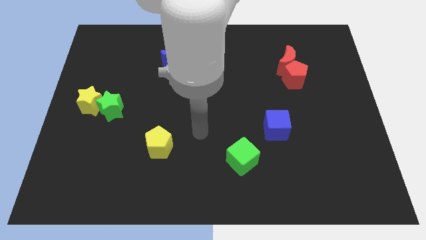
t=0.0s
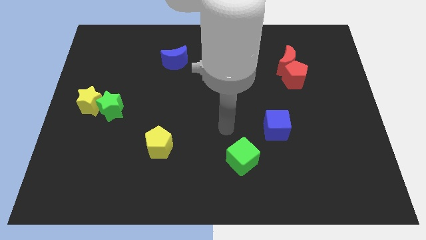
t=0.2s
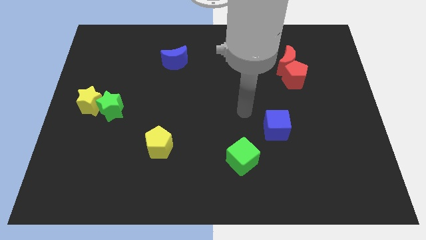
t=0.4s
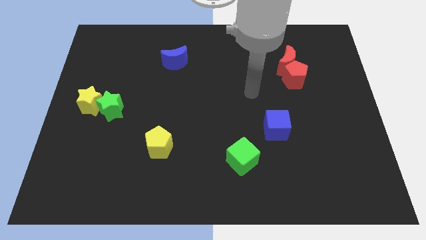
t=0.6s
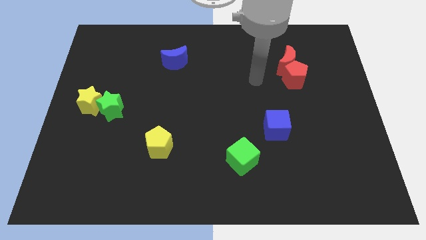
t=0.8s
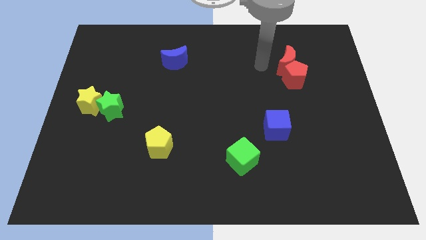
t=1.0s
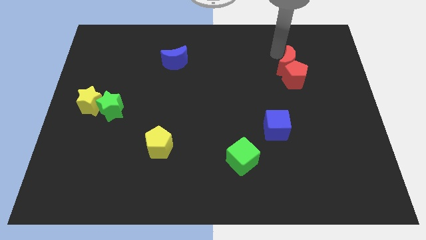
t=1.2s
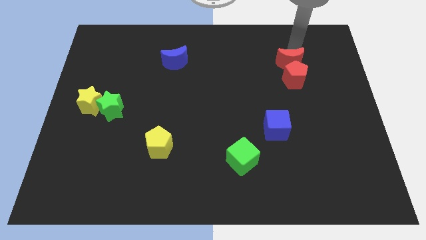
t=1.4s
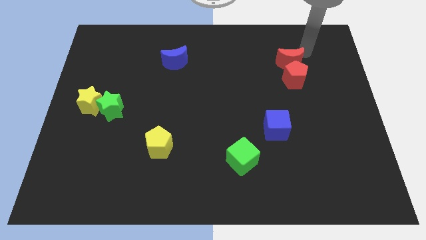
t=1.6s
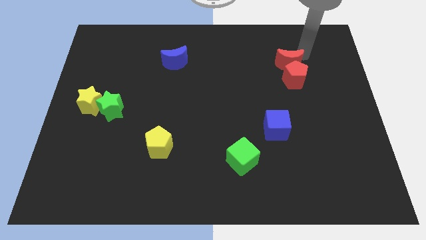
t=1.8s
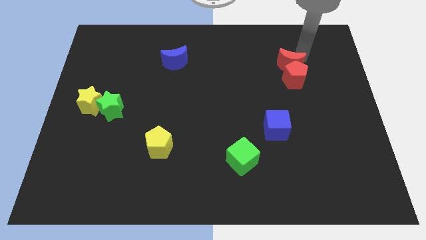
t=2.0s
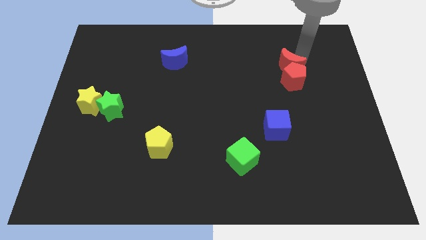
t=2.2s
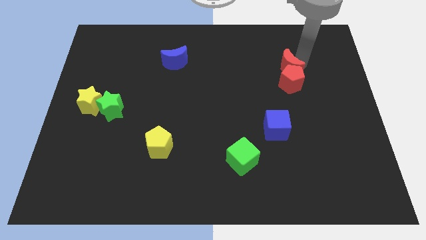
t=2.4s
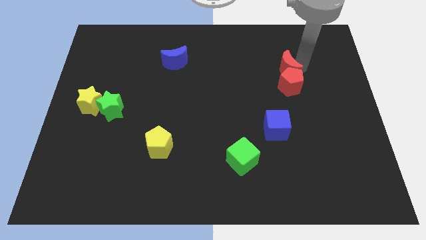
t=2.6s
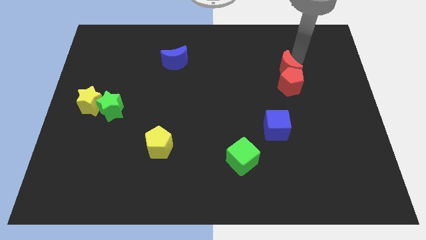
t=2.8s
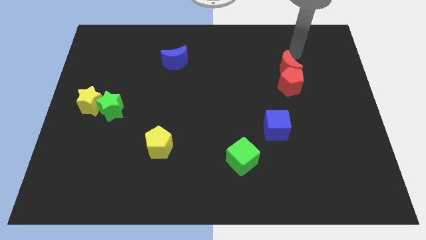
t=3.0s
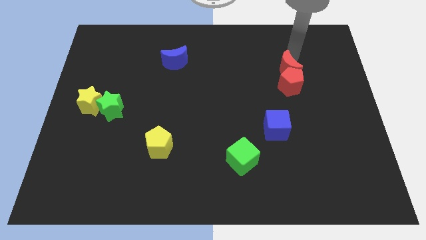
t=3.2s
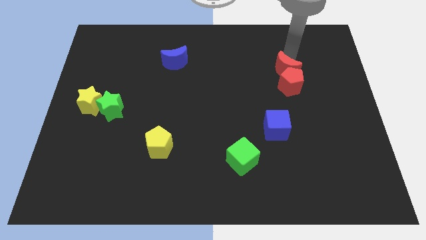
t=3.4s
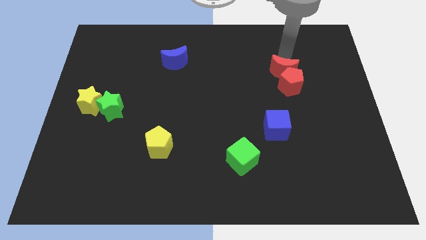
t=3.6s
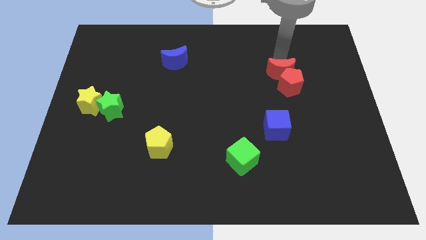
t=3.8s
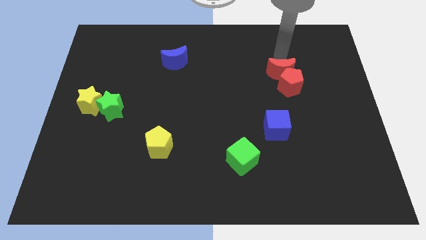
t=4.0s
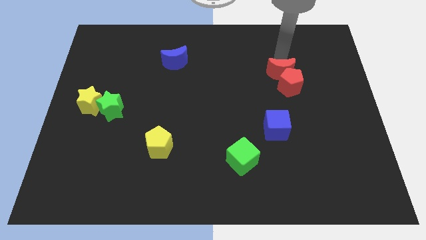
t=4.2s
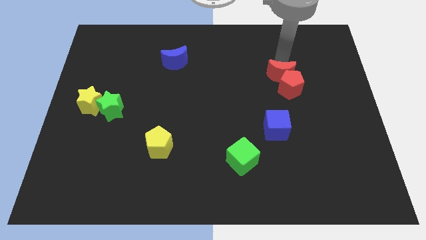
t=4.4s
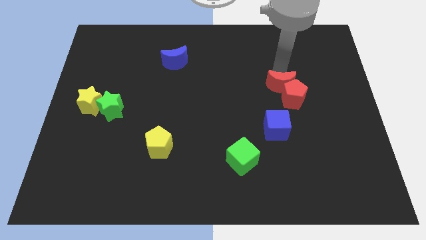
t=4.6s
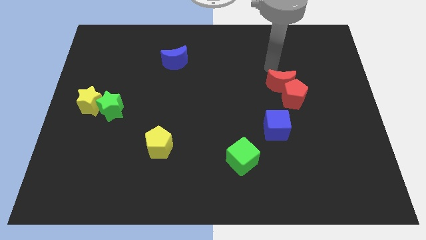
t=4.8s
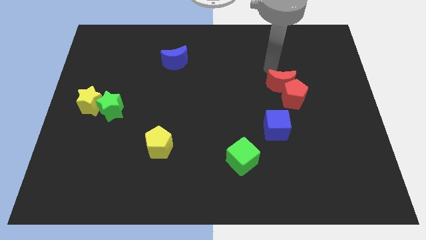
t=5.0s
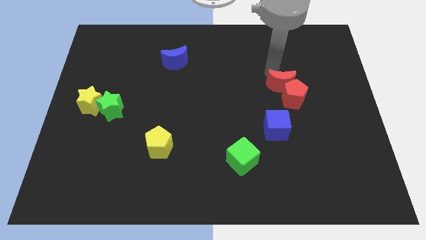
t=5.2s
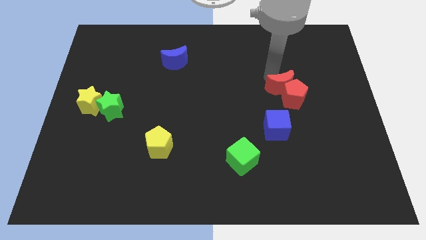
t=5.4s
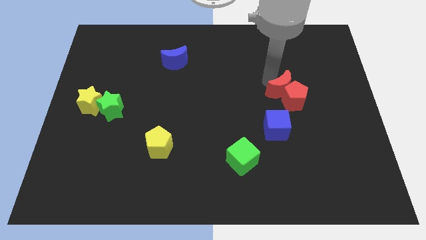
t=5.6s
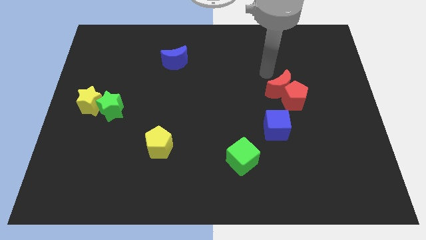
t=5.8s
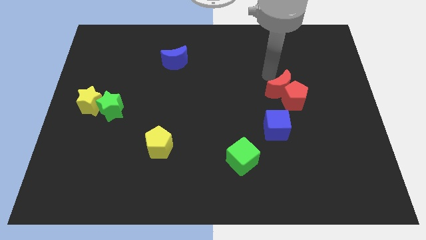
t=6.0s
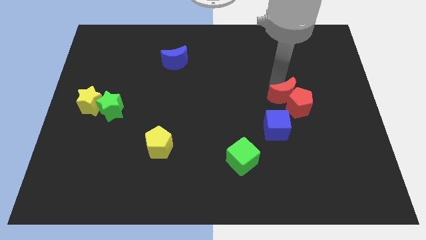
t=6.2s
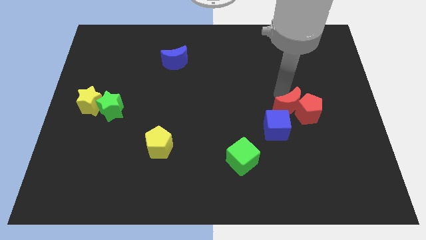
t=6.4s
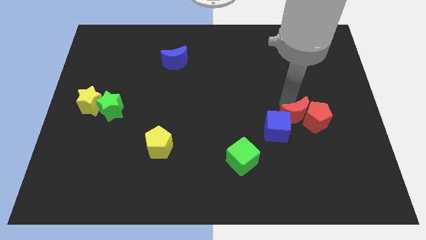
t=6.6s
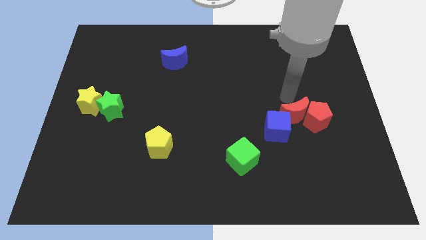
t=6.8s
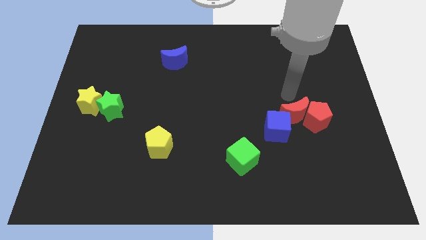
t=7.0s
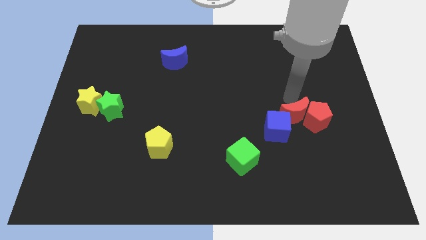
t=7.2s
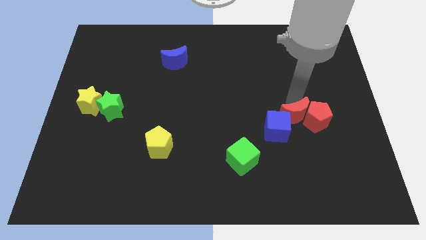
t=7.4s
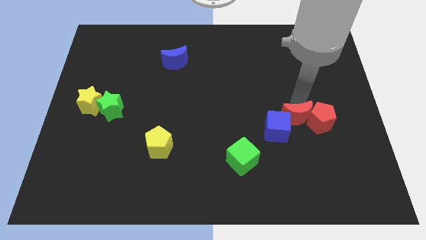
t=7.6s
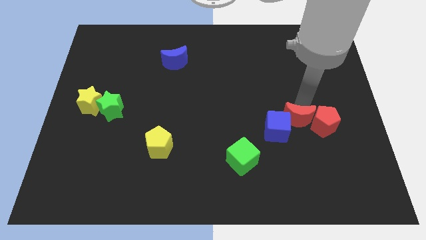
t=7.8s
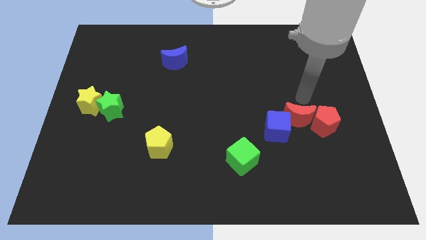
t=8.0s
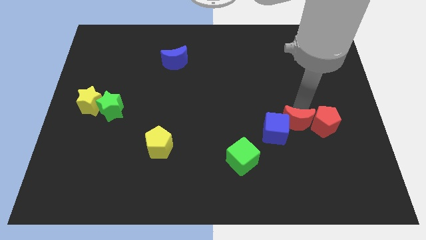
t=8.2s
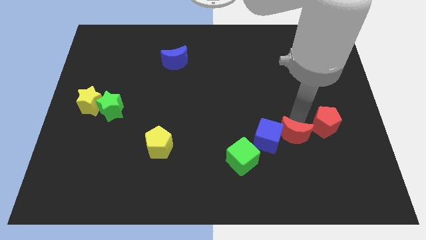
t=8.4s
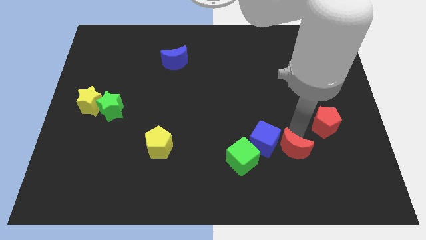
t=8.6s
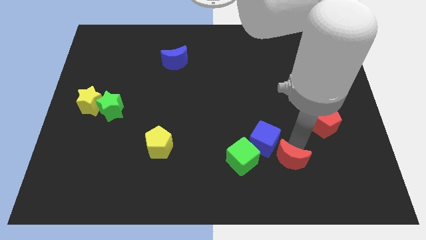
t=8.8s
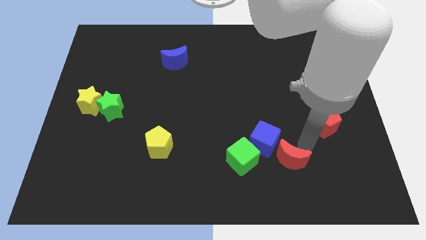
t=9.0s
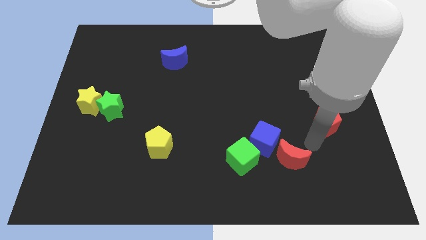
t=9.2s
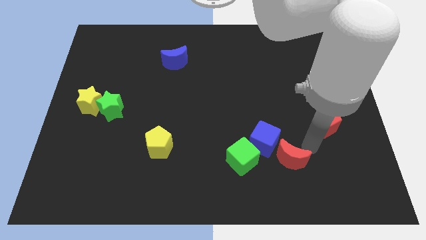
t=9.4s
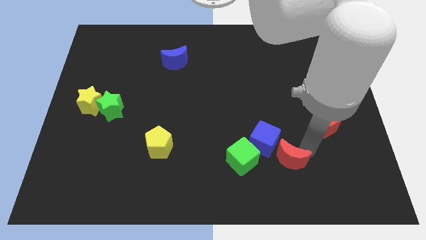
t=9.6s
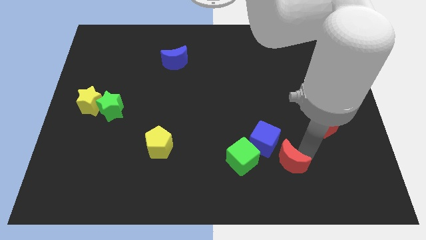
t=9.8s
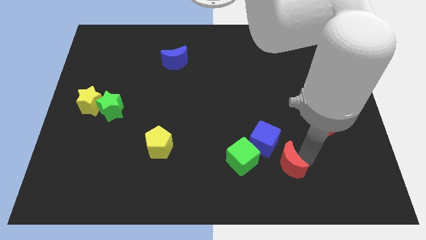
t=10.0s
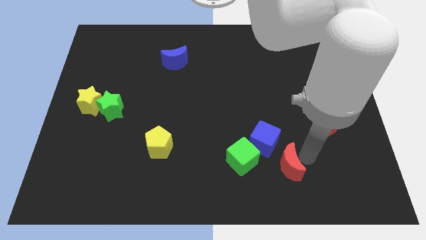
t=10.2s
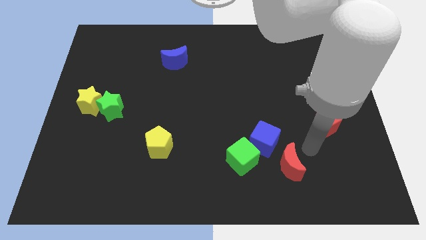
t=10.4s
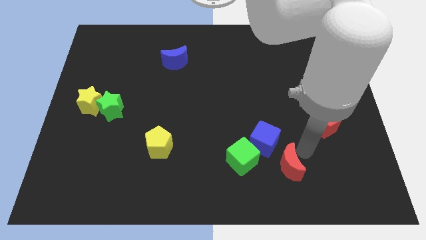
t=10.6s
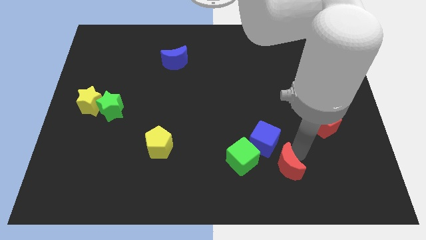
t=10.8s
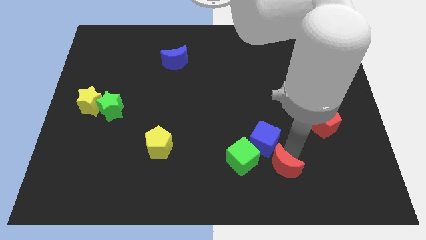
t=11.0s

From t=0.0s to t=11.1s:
push the red moon to the bottom right side of the green cube

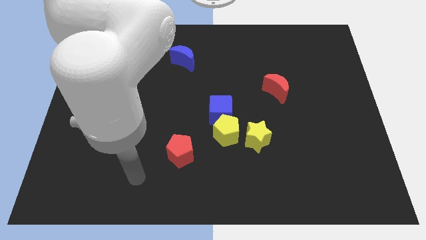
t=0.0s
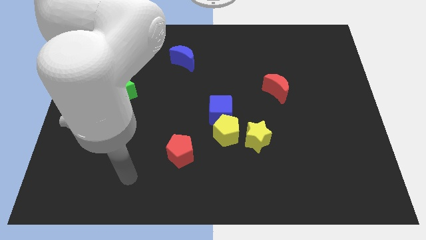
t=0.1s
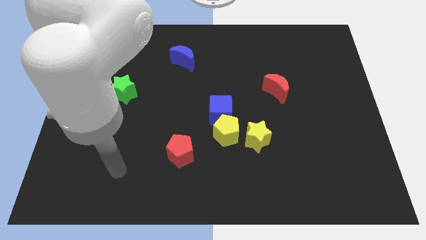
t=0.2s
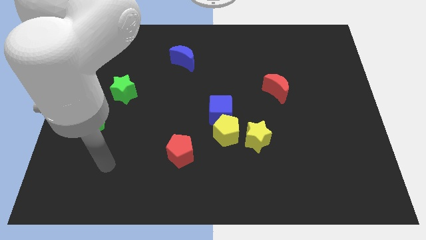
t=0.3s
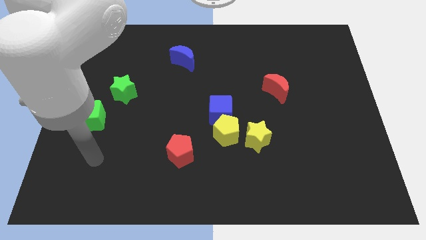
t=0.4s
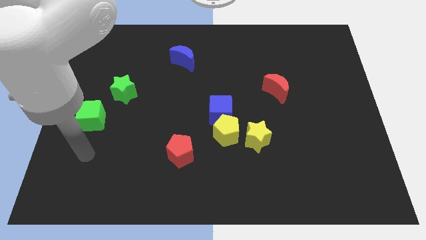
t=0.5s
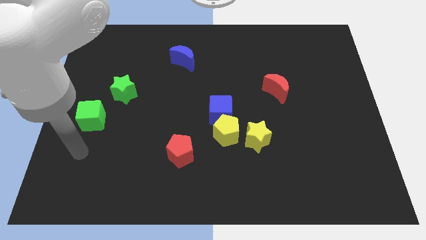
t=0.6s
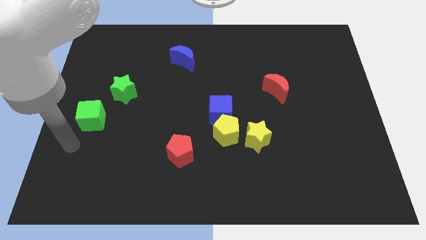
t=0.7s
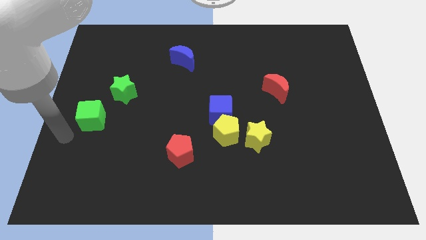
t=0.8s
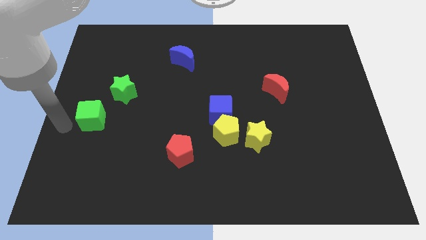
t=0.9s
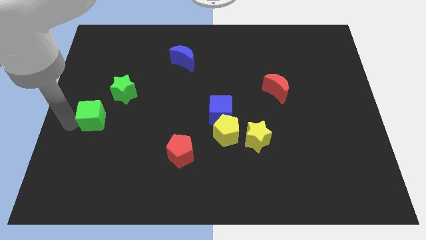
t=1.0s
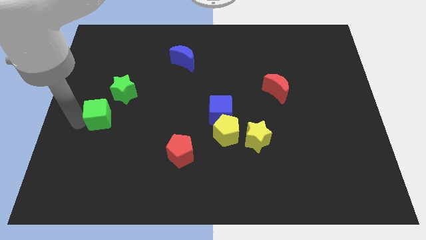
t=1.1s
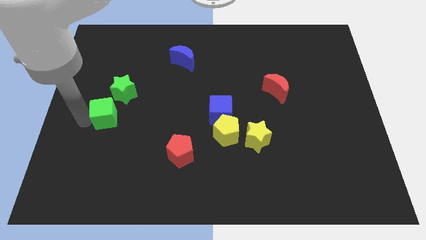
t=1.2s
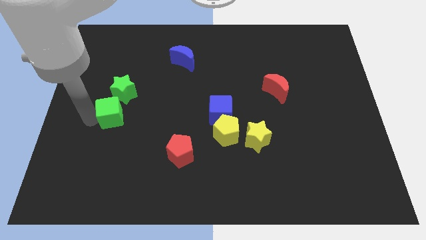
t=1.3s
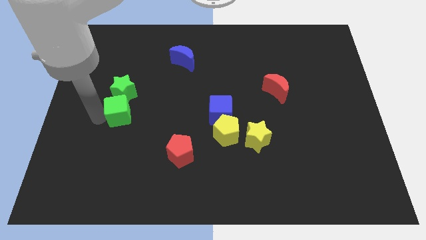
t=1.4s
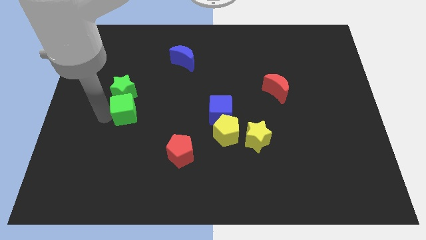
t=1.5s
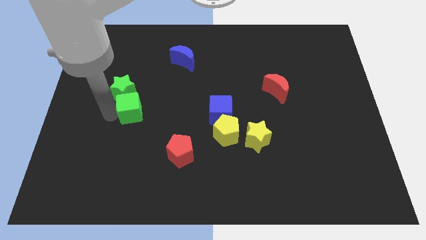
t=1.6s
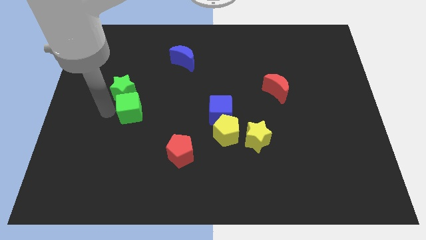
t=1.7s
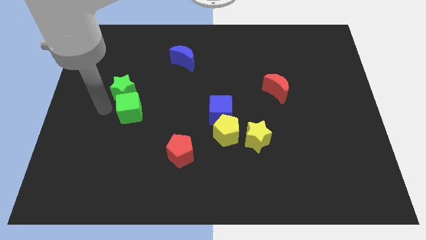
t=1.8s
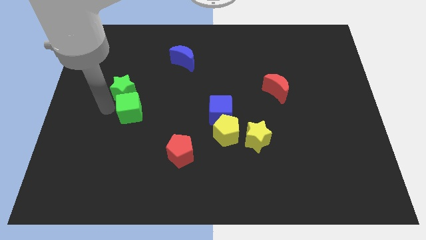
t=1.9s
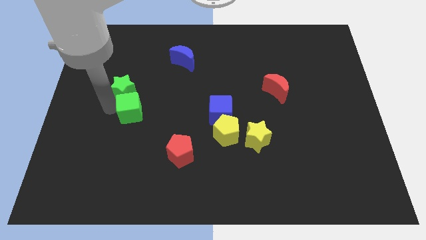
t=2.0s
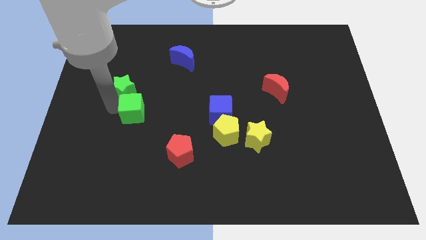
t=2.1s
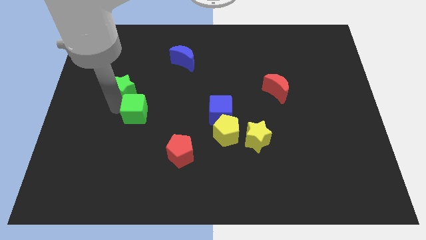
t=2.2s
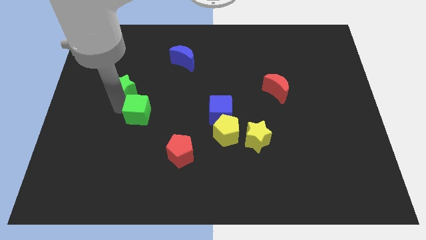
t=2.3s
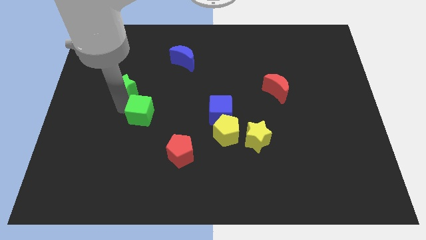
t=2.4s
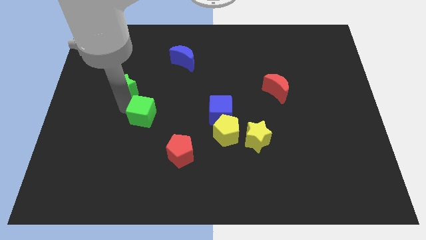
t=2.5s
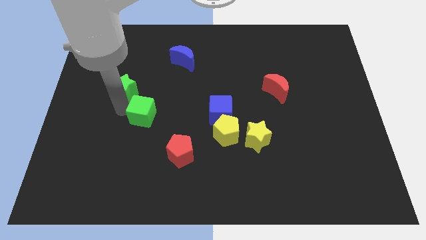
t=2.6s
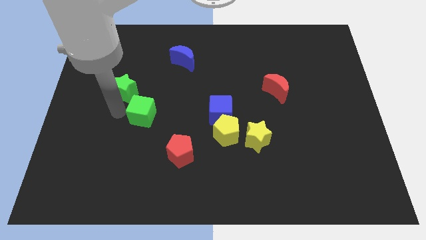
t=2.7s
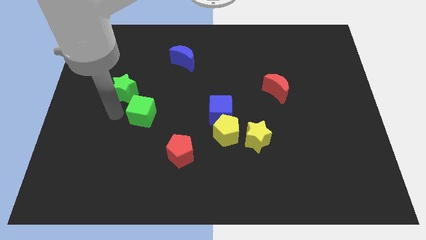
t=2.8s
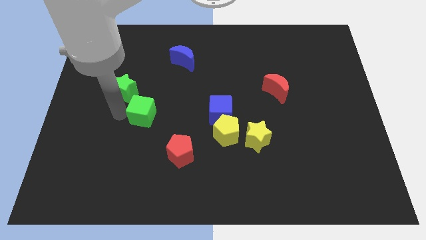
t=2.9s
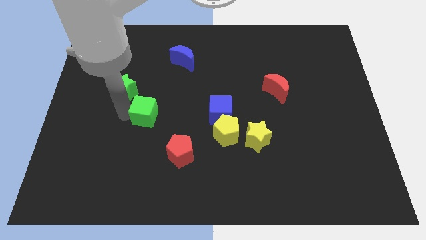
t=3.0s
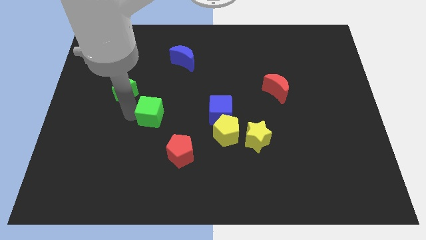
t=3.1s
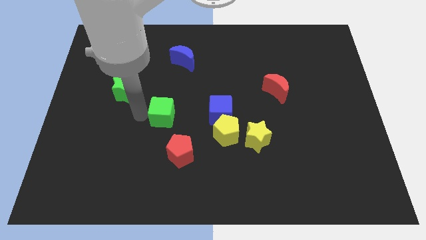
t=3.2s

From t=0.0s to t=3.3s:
slide the green cube above the red pentagon
